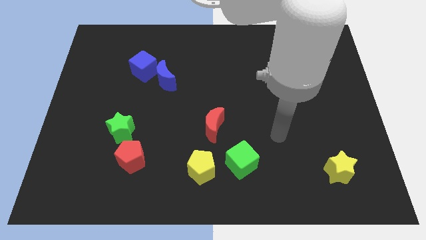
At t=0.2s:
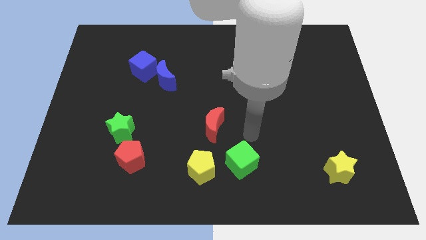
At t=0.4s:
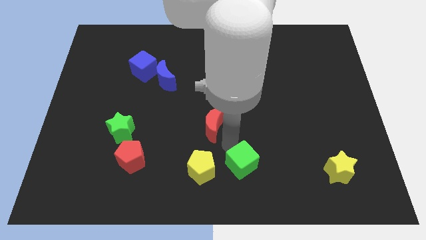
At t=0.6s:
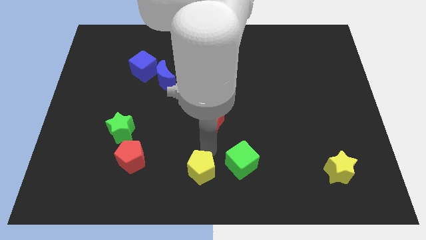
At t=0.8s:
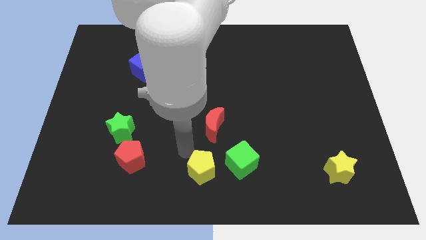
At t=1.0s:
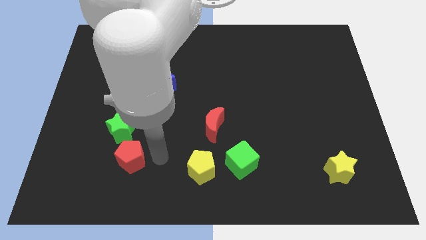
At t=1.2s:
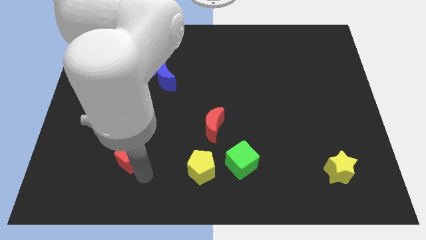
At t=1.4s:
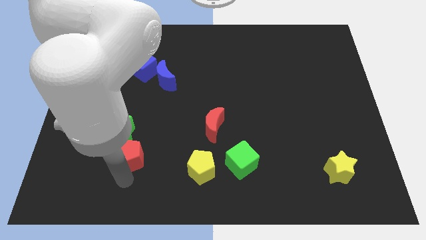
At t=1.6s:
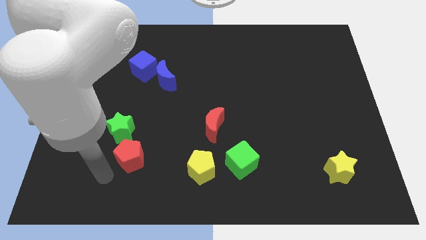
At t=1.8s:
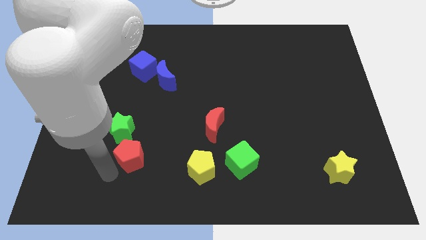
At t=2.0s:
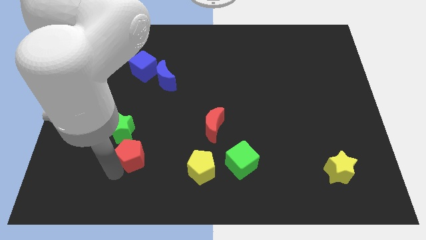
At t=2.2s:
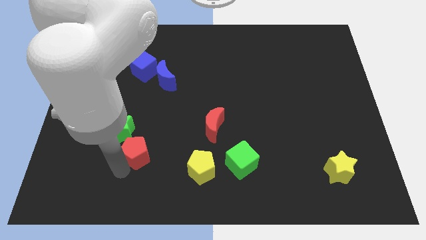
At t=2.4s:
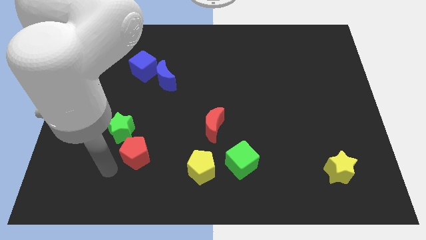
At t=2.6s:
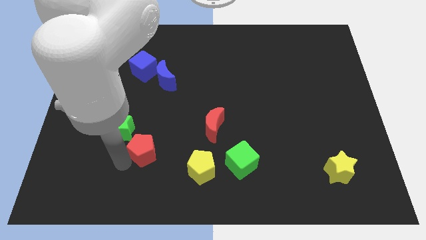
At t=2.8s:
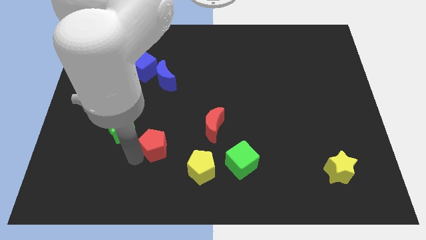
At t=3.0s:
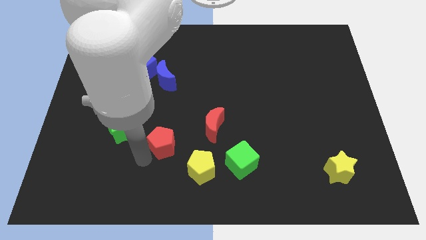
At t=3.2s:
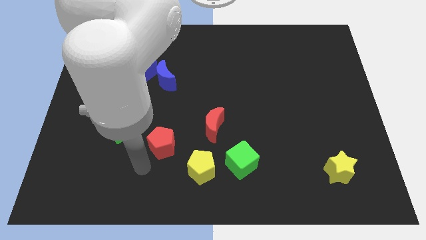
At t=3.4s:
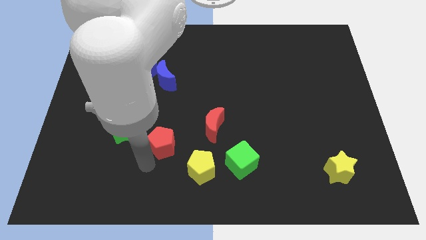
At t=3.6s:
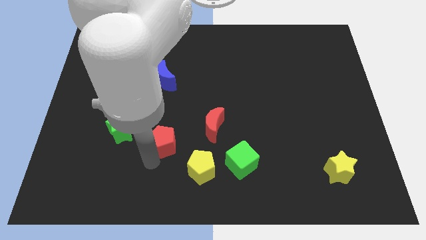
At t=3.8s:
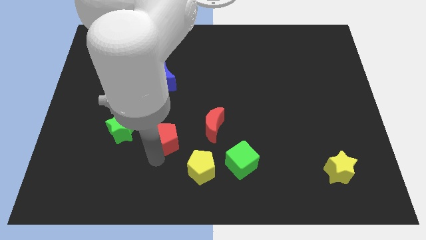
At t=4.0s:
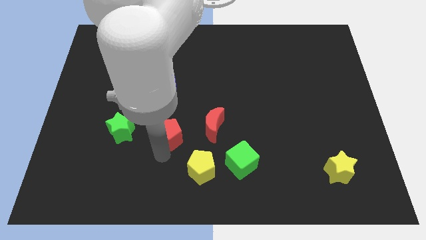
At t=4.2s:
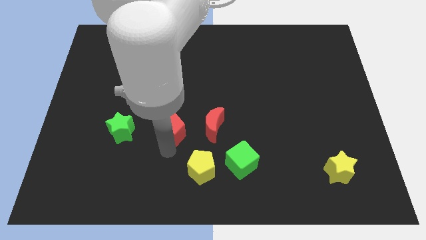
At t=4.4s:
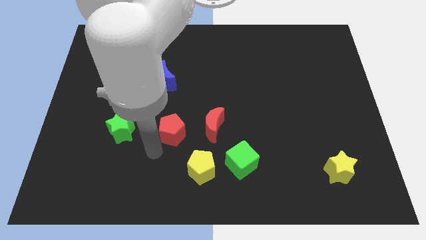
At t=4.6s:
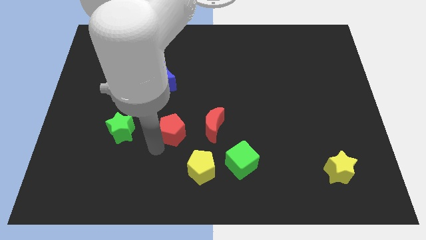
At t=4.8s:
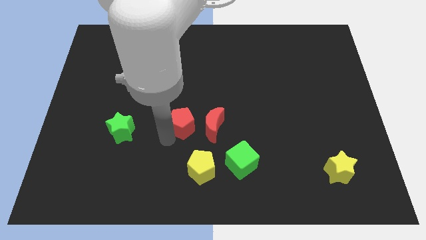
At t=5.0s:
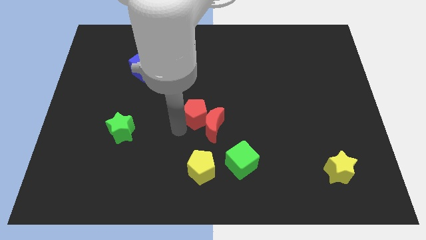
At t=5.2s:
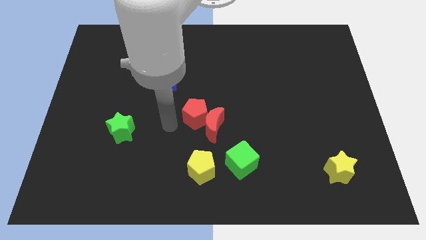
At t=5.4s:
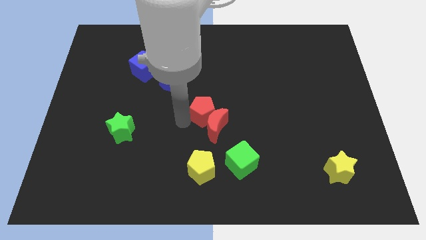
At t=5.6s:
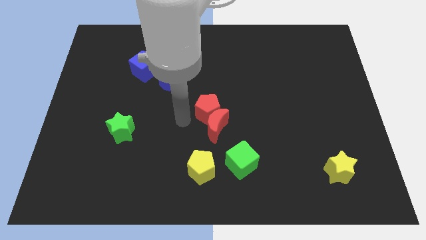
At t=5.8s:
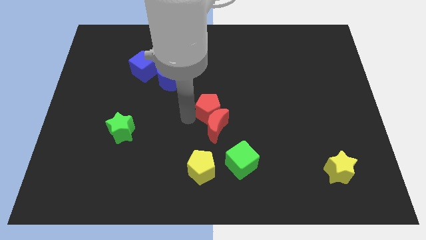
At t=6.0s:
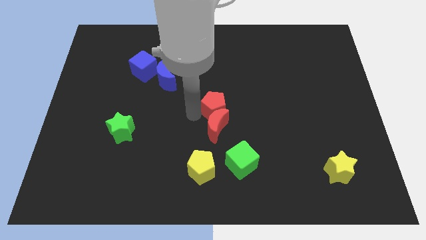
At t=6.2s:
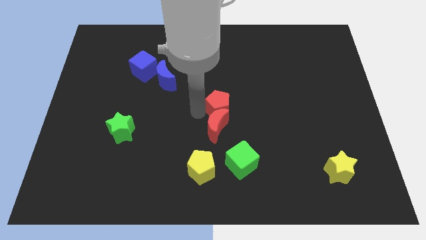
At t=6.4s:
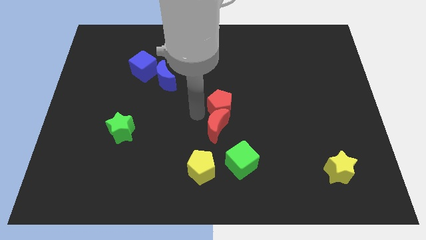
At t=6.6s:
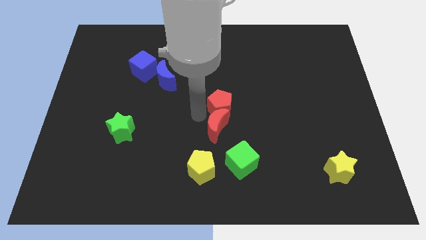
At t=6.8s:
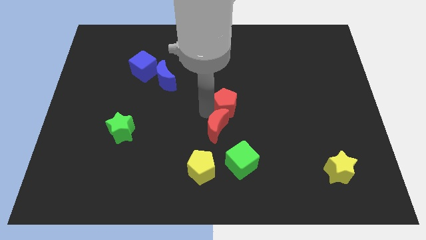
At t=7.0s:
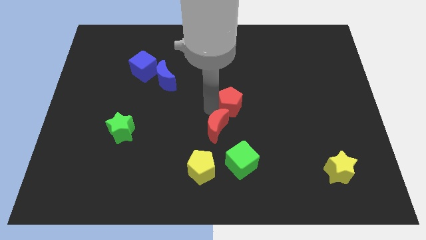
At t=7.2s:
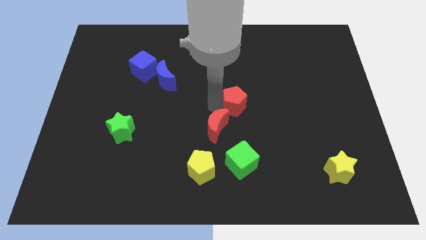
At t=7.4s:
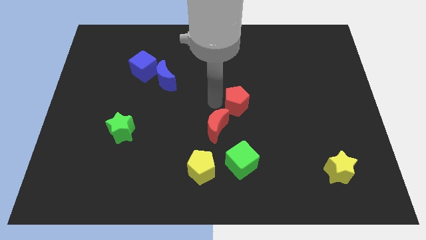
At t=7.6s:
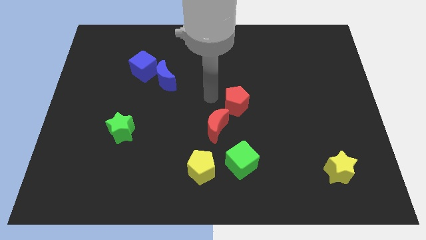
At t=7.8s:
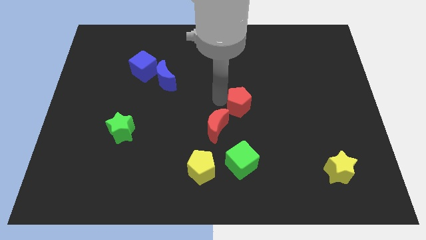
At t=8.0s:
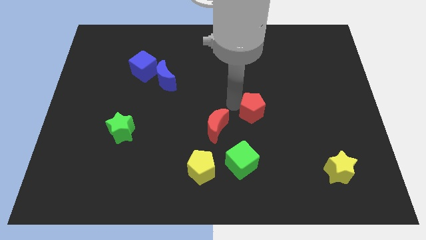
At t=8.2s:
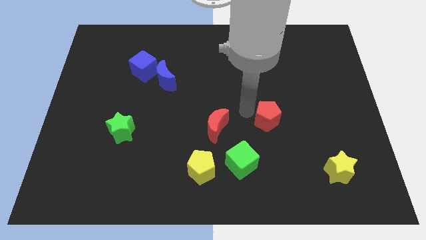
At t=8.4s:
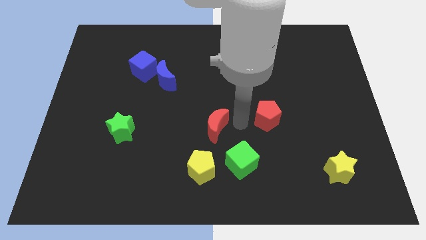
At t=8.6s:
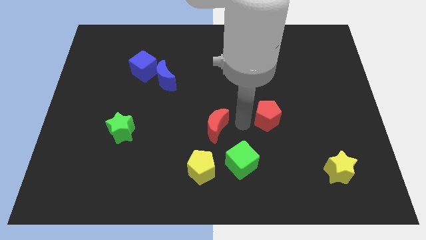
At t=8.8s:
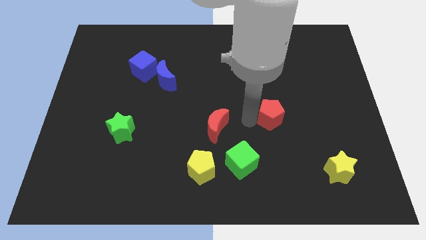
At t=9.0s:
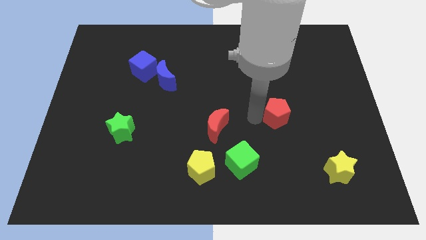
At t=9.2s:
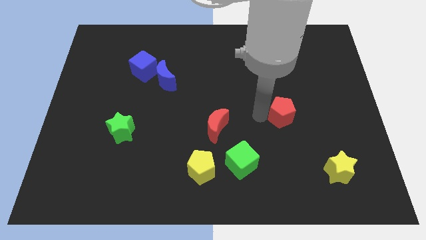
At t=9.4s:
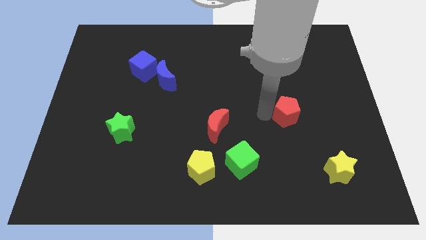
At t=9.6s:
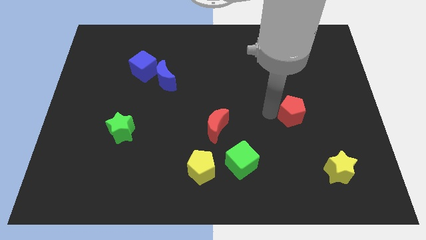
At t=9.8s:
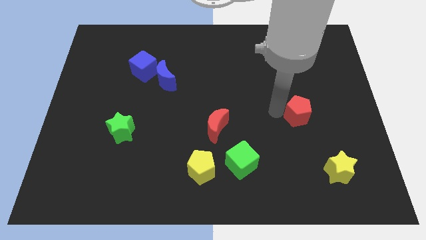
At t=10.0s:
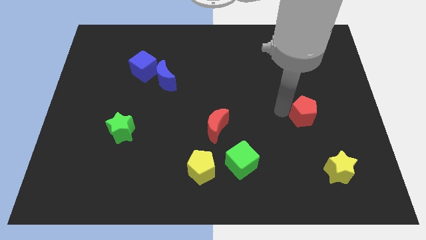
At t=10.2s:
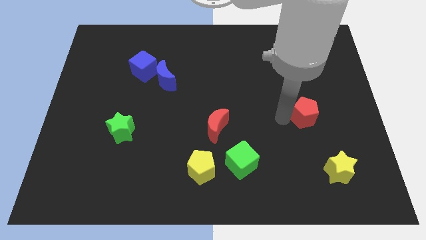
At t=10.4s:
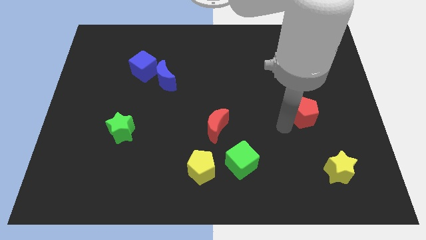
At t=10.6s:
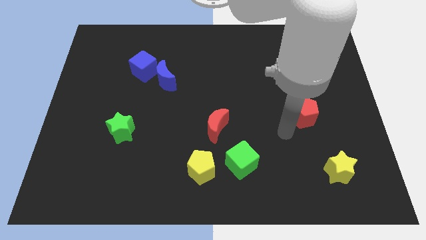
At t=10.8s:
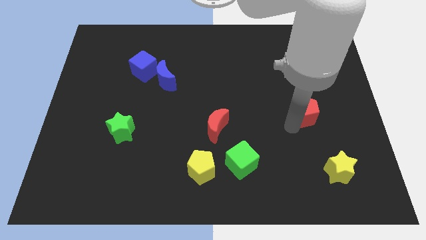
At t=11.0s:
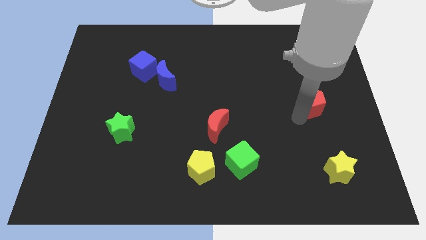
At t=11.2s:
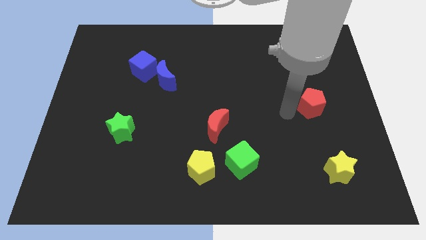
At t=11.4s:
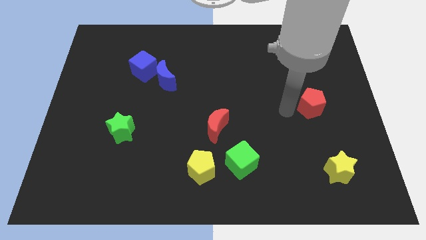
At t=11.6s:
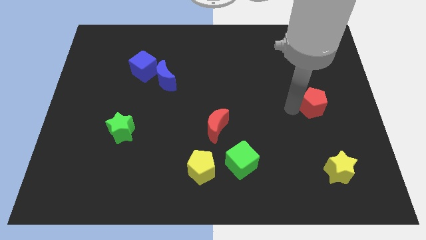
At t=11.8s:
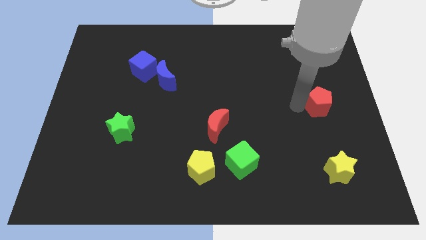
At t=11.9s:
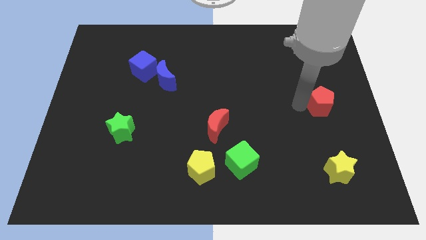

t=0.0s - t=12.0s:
put the red pentagon to the right side
